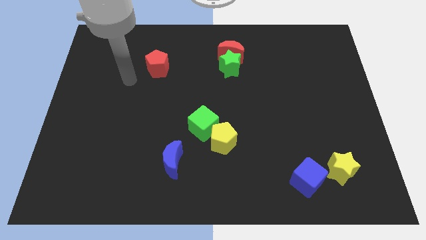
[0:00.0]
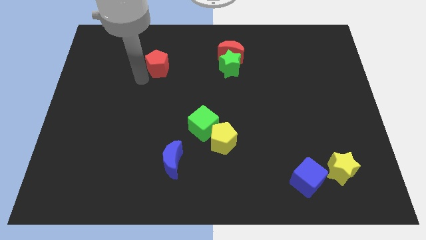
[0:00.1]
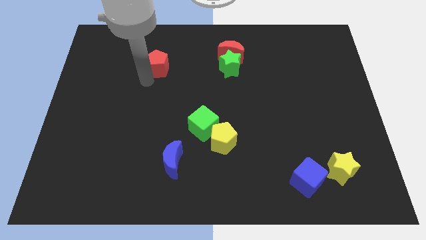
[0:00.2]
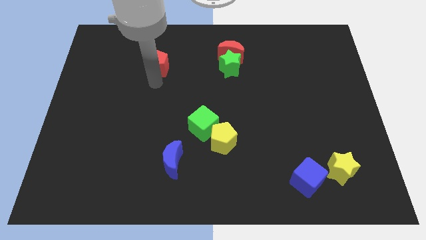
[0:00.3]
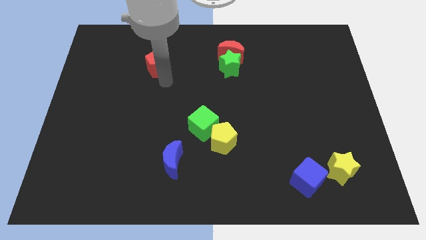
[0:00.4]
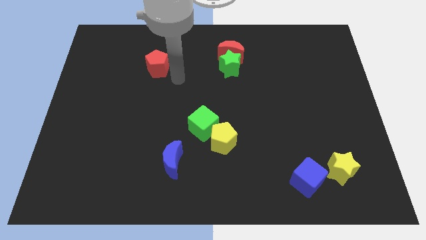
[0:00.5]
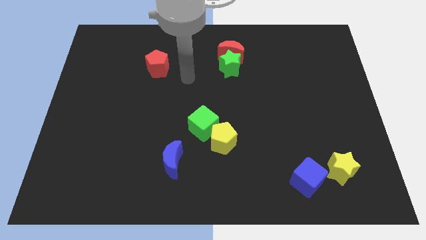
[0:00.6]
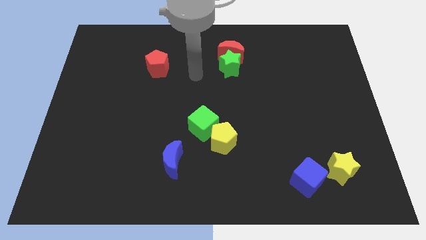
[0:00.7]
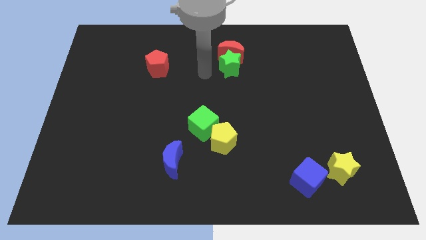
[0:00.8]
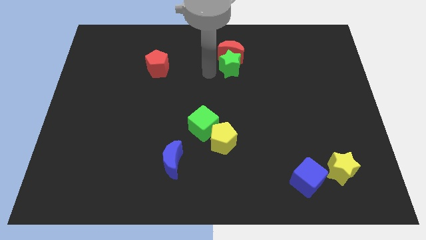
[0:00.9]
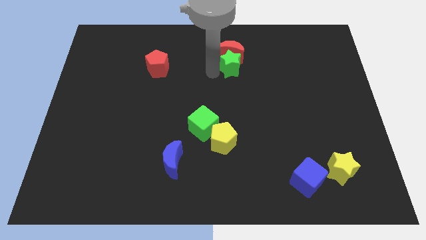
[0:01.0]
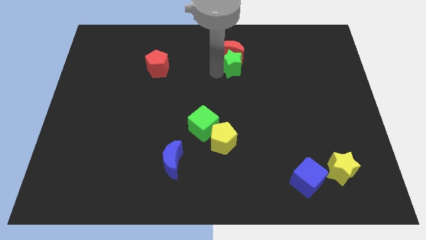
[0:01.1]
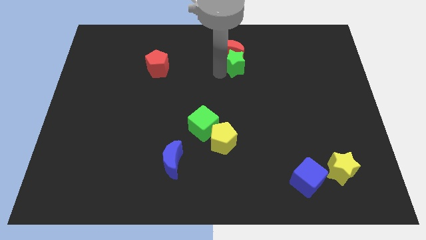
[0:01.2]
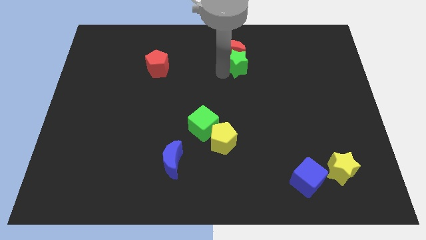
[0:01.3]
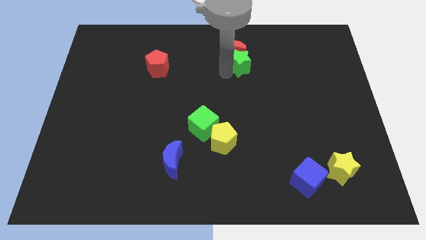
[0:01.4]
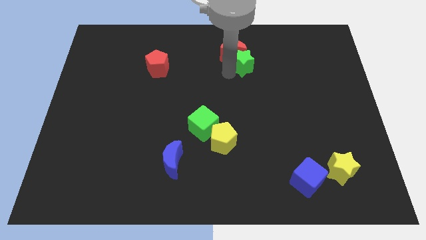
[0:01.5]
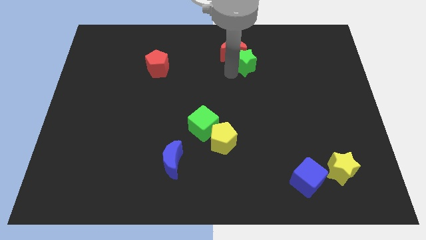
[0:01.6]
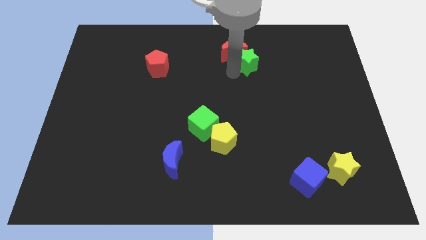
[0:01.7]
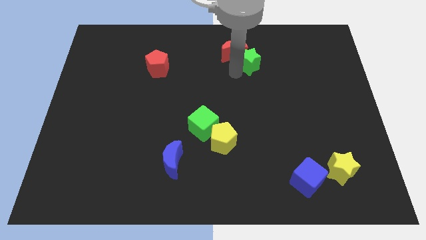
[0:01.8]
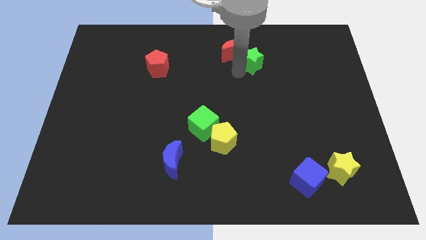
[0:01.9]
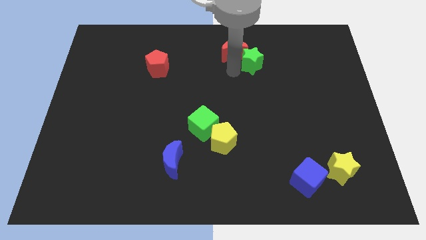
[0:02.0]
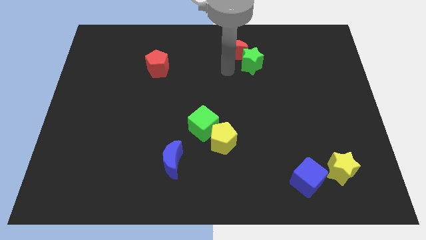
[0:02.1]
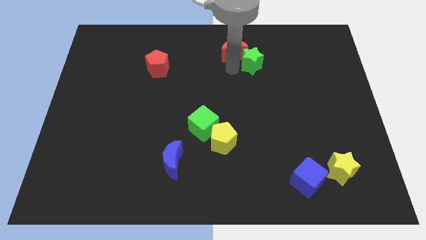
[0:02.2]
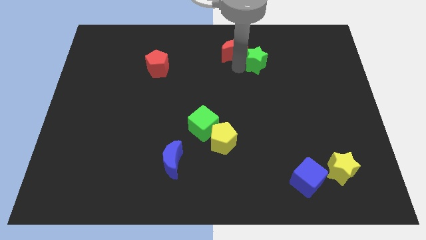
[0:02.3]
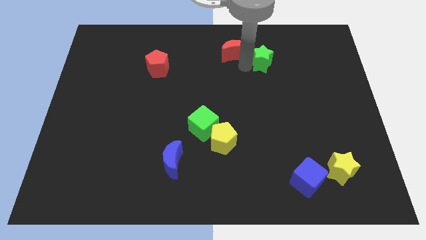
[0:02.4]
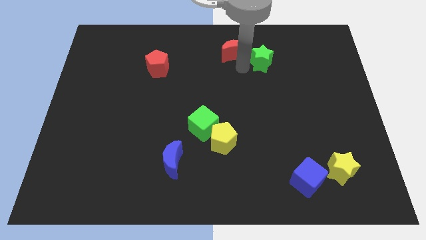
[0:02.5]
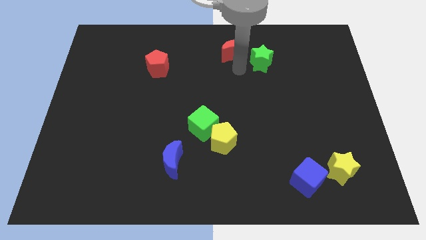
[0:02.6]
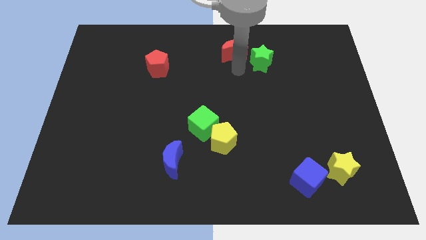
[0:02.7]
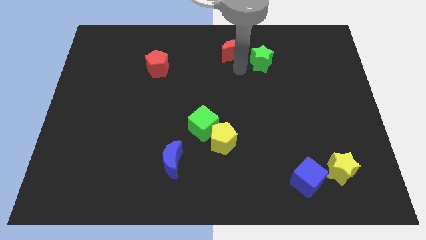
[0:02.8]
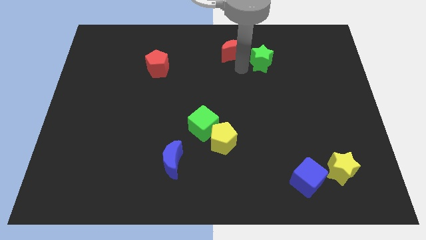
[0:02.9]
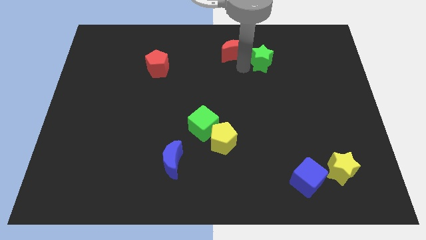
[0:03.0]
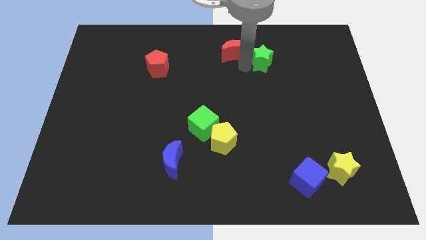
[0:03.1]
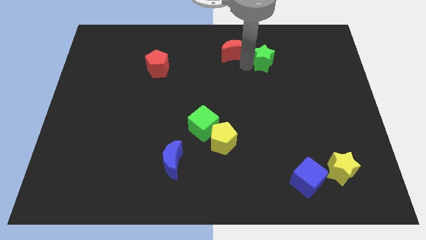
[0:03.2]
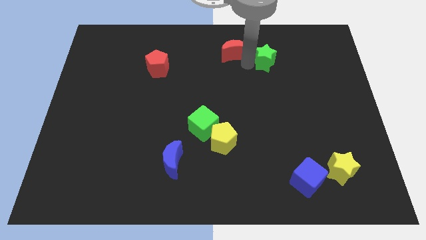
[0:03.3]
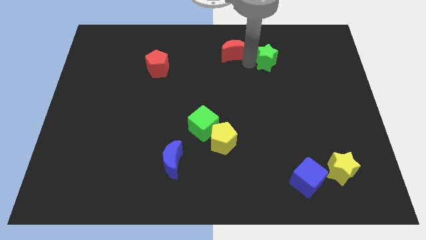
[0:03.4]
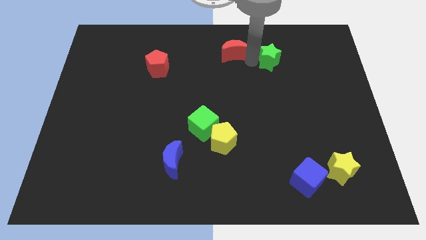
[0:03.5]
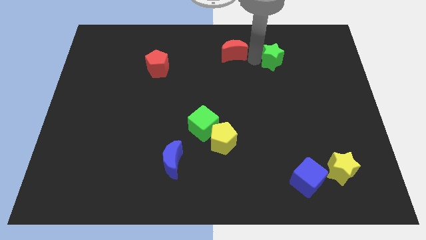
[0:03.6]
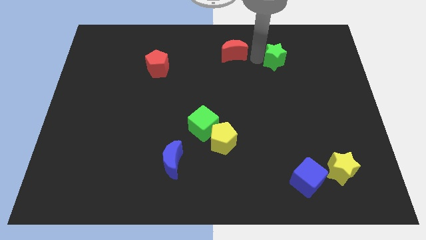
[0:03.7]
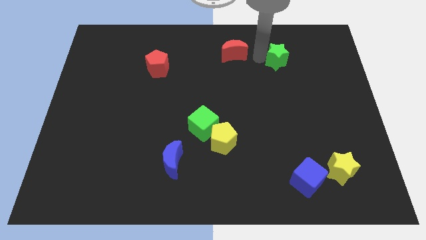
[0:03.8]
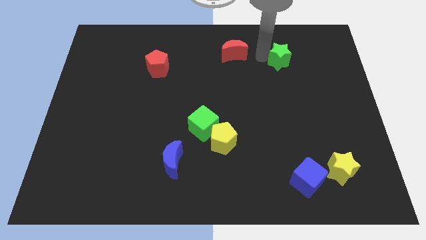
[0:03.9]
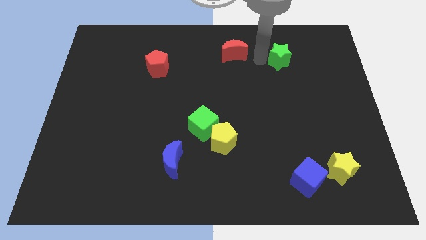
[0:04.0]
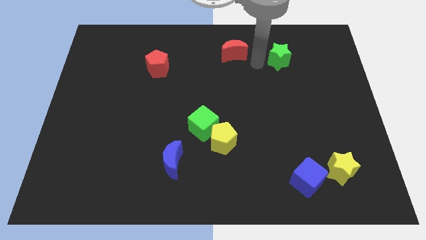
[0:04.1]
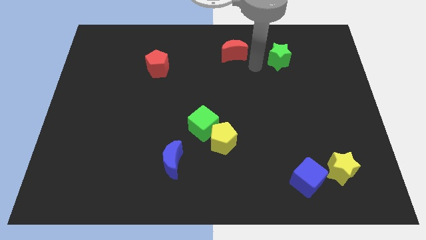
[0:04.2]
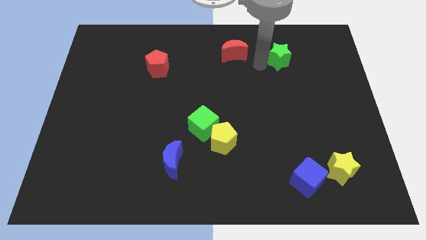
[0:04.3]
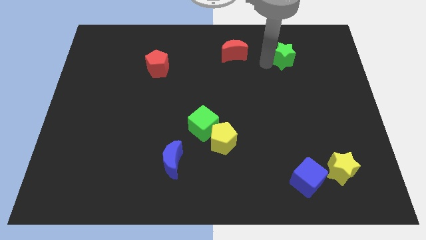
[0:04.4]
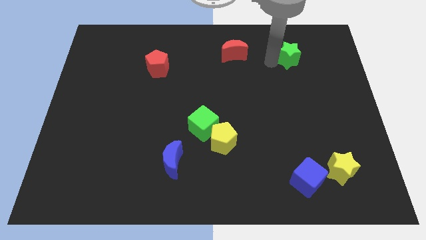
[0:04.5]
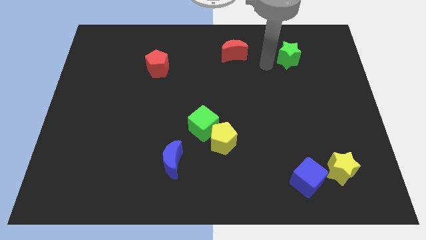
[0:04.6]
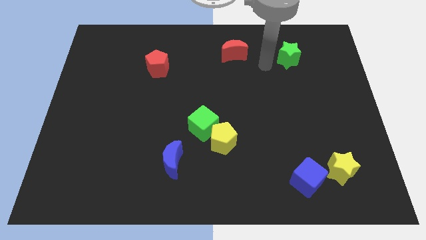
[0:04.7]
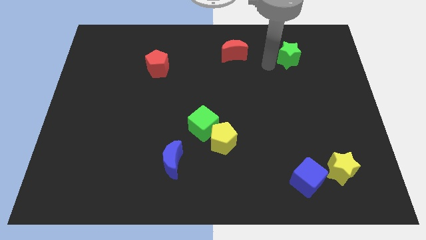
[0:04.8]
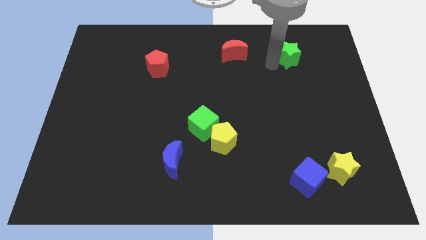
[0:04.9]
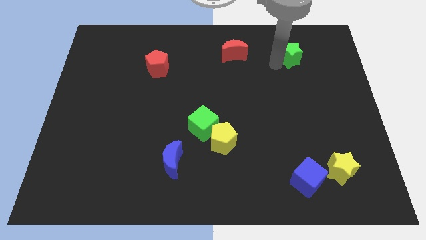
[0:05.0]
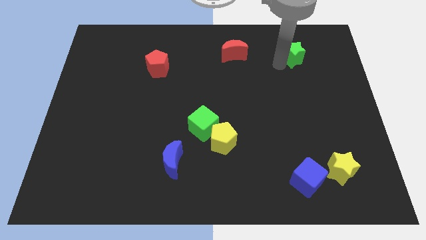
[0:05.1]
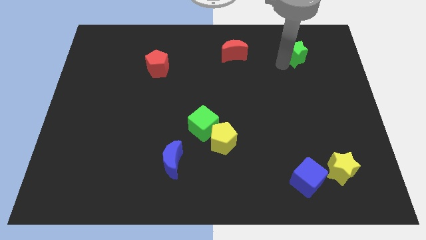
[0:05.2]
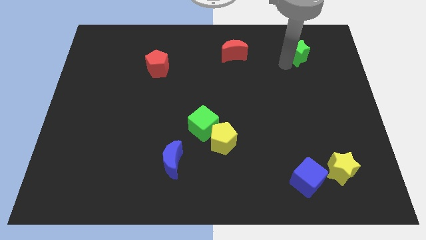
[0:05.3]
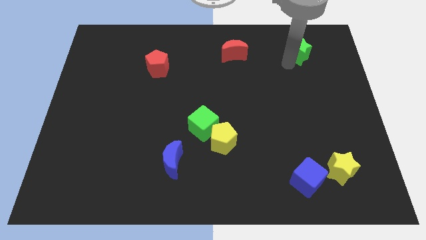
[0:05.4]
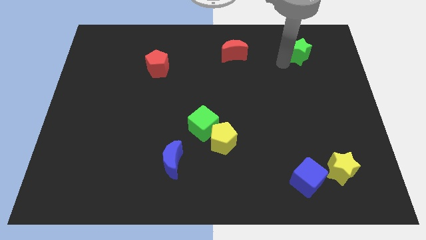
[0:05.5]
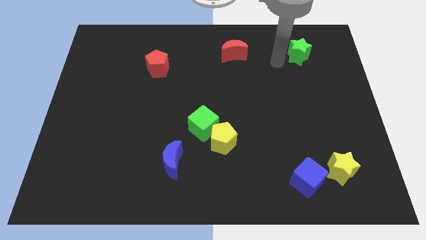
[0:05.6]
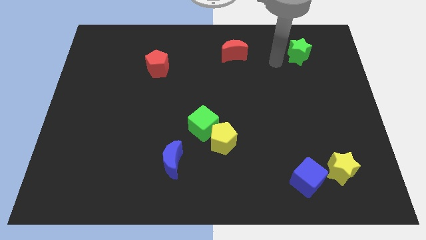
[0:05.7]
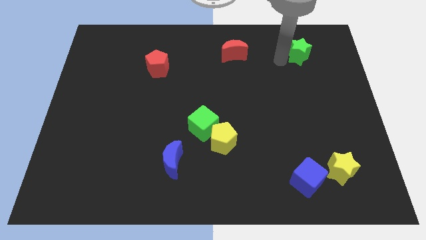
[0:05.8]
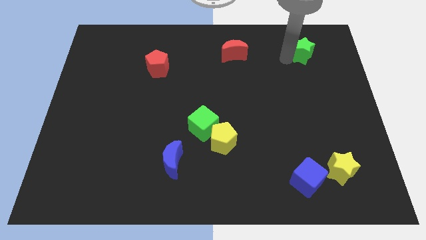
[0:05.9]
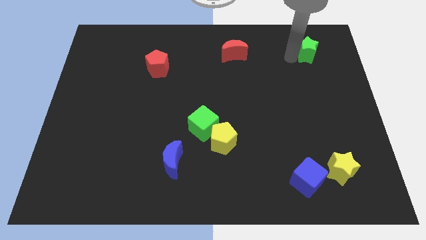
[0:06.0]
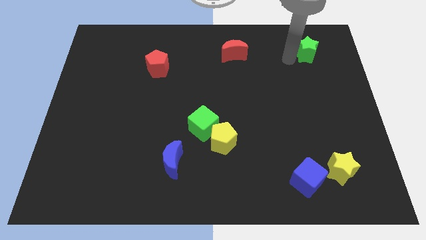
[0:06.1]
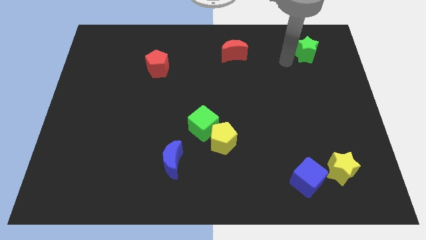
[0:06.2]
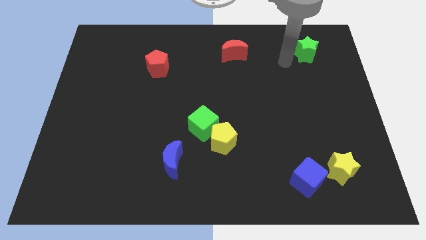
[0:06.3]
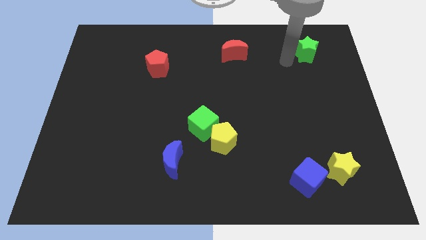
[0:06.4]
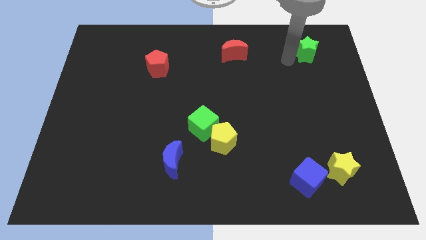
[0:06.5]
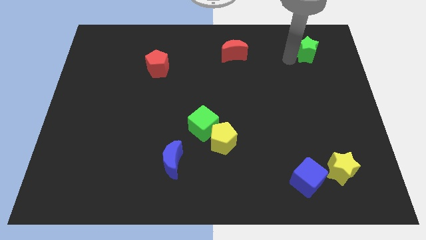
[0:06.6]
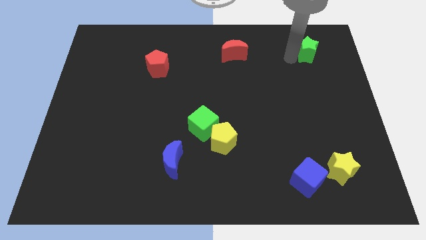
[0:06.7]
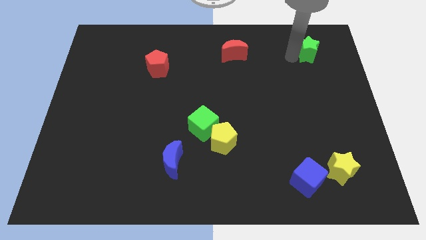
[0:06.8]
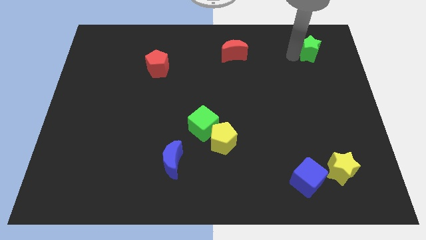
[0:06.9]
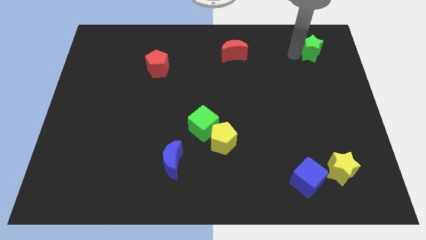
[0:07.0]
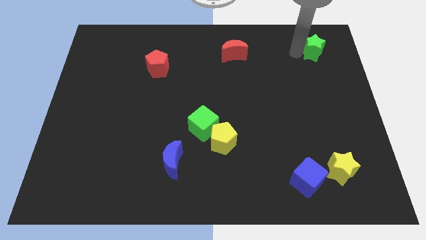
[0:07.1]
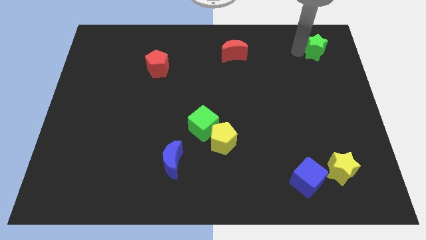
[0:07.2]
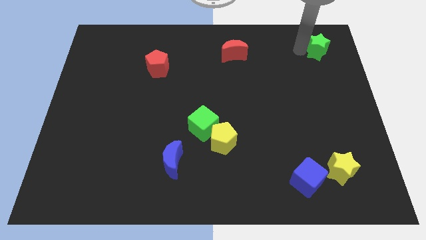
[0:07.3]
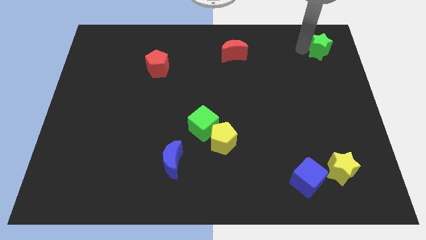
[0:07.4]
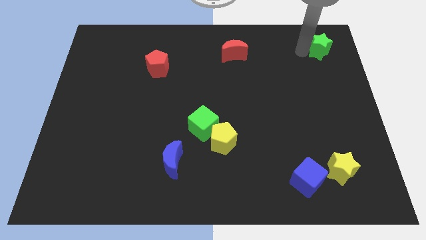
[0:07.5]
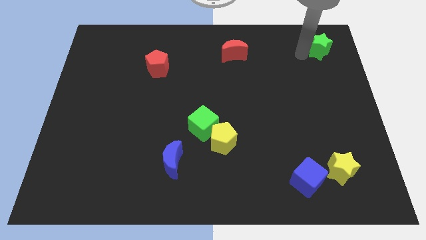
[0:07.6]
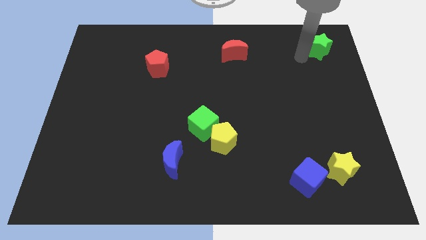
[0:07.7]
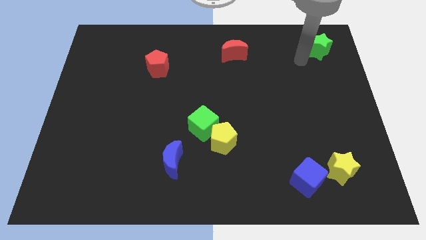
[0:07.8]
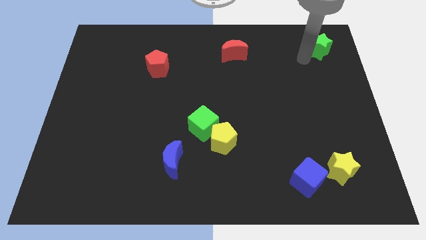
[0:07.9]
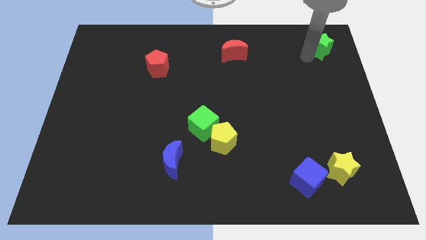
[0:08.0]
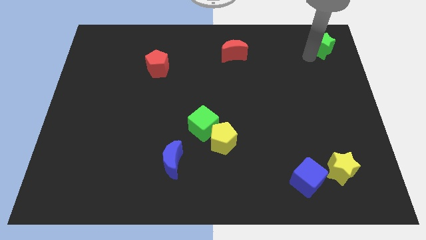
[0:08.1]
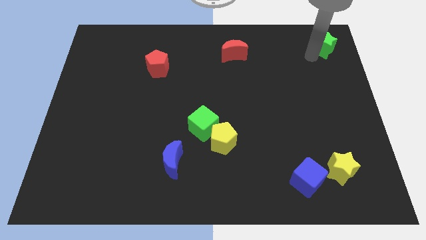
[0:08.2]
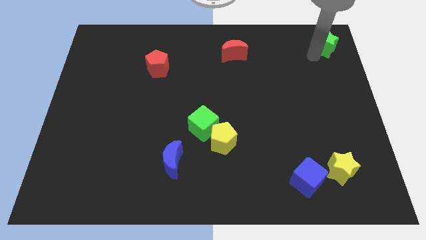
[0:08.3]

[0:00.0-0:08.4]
slide the green star to the top right corner
